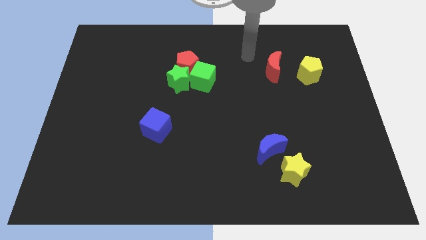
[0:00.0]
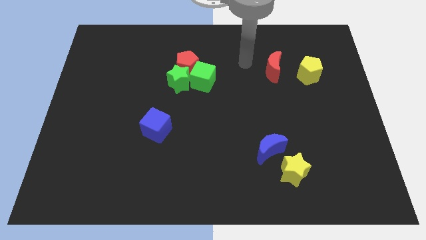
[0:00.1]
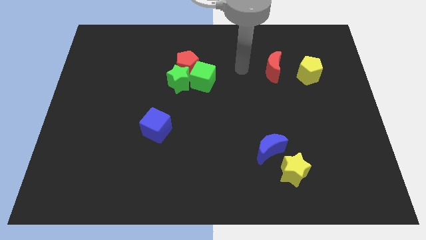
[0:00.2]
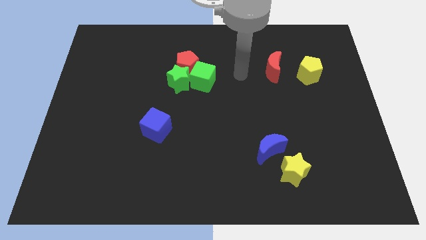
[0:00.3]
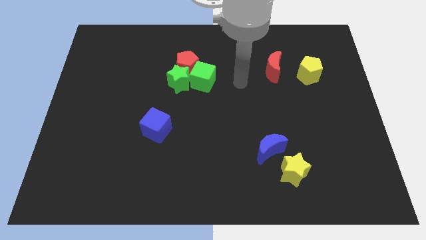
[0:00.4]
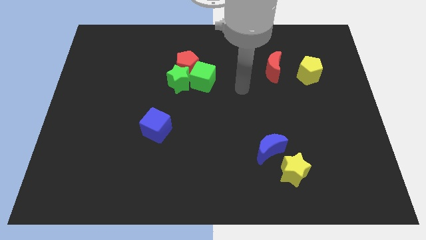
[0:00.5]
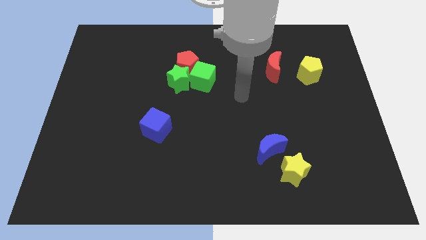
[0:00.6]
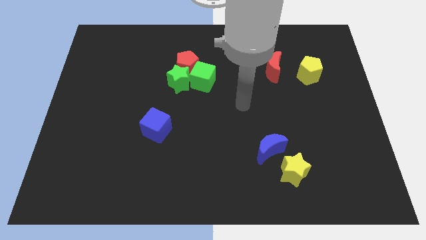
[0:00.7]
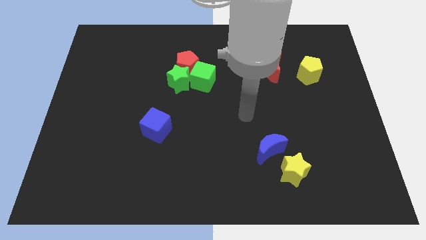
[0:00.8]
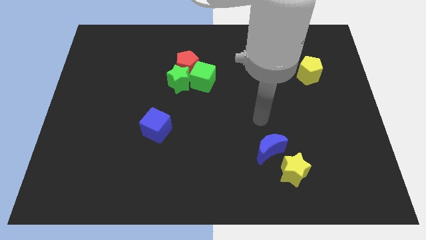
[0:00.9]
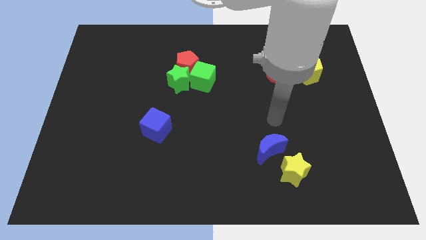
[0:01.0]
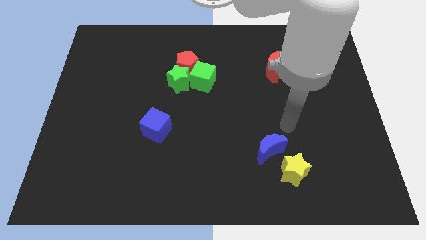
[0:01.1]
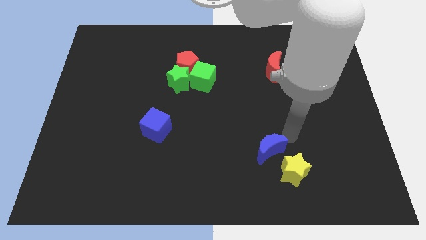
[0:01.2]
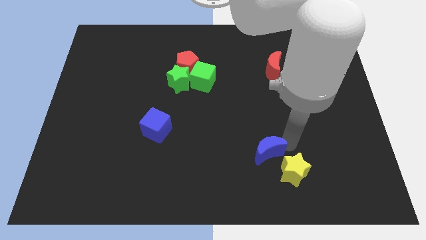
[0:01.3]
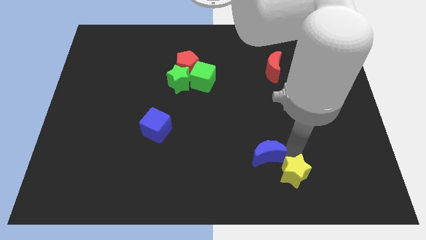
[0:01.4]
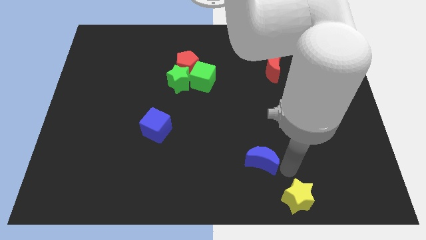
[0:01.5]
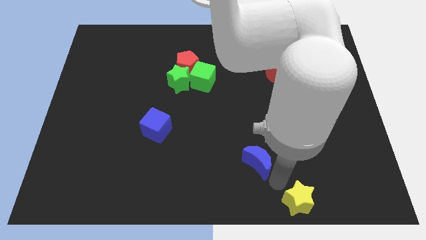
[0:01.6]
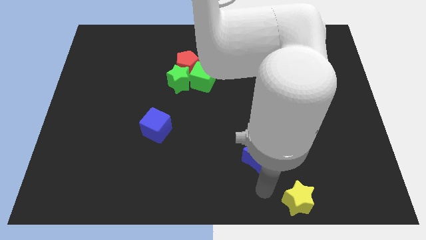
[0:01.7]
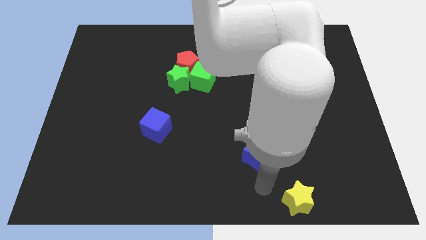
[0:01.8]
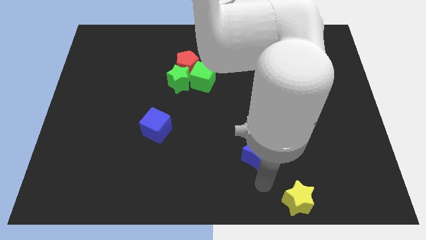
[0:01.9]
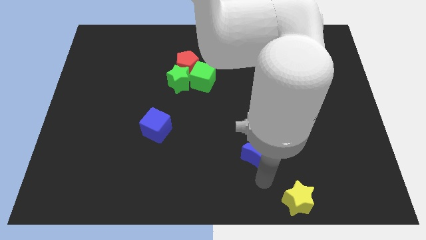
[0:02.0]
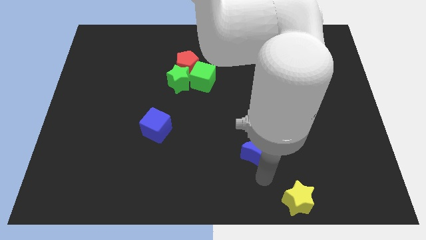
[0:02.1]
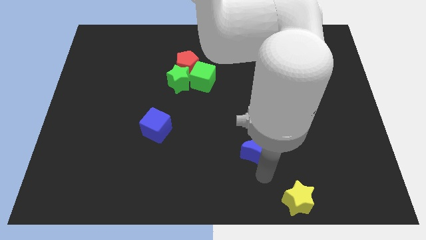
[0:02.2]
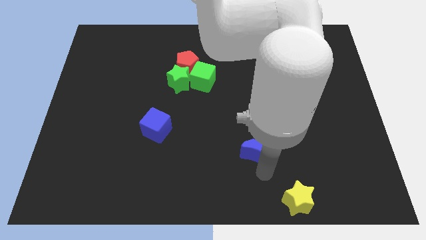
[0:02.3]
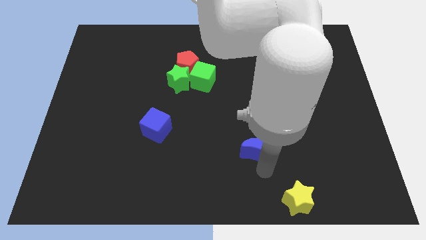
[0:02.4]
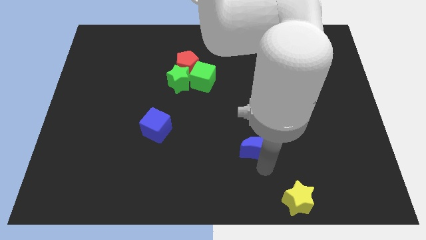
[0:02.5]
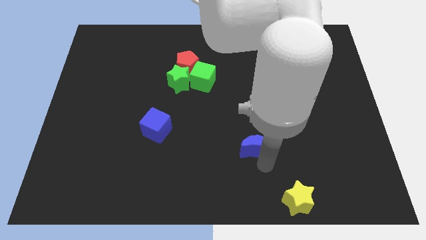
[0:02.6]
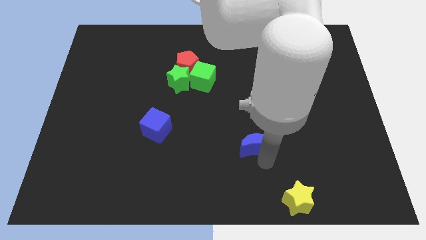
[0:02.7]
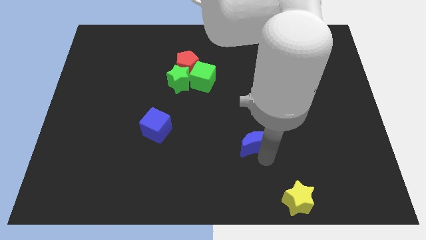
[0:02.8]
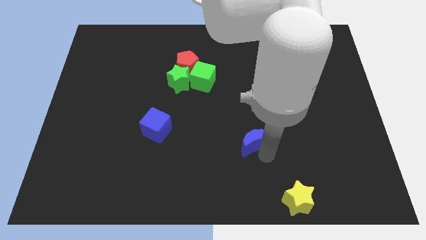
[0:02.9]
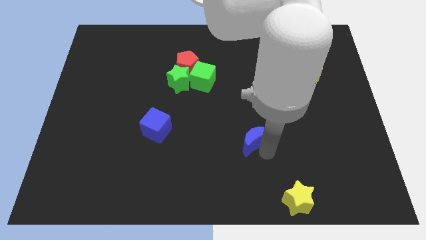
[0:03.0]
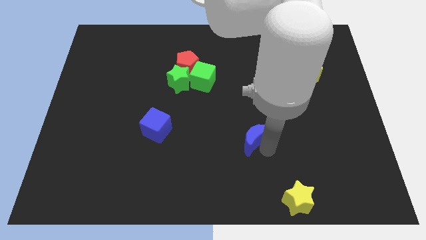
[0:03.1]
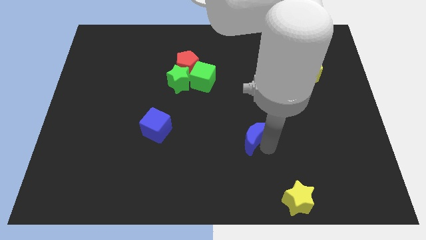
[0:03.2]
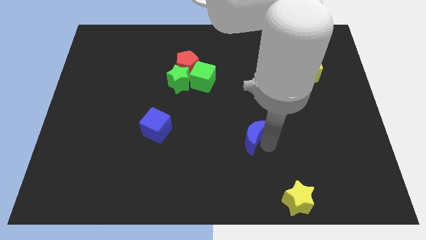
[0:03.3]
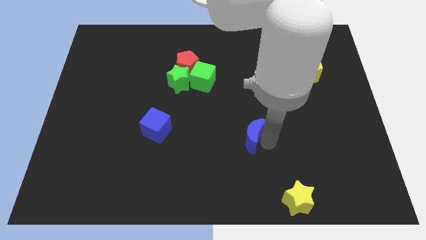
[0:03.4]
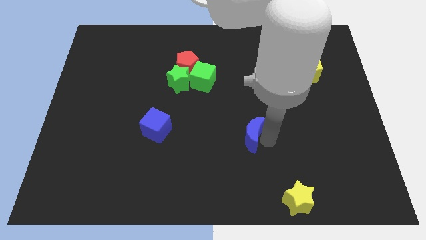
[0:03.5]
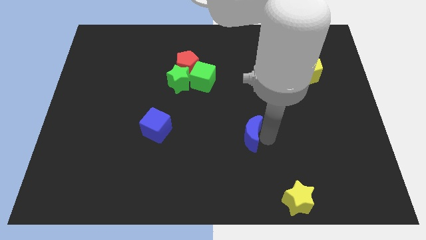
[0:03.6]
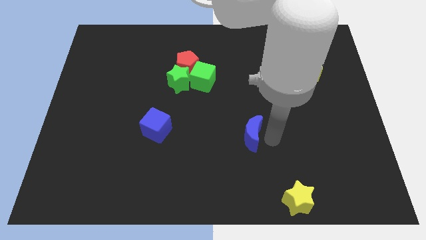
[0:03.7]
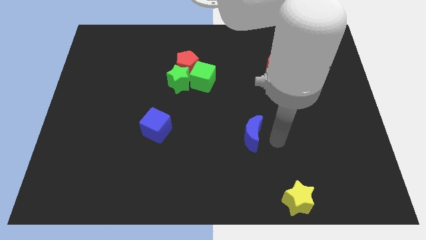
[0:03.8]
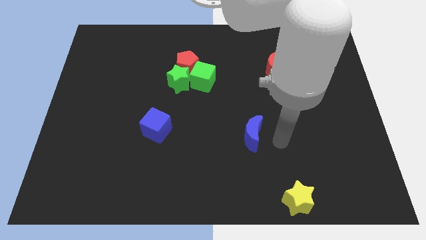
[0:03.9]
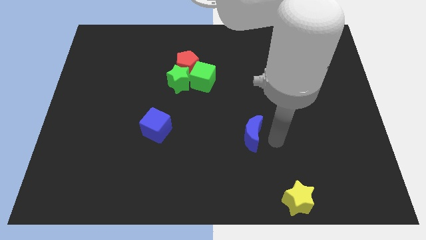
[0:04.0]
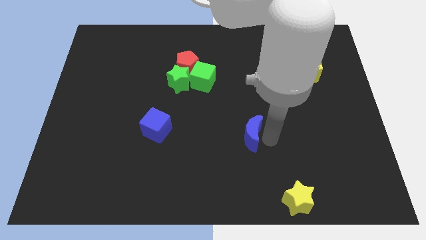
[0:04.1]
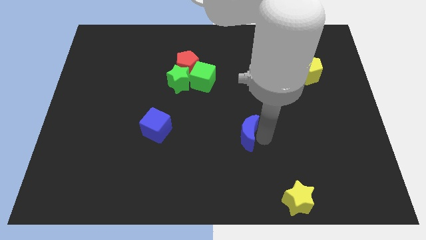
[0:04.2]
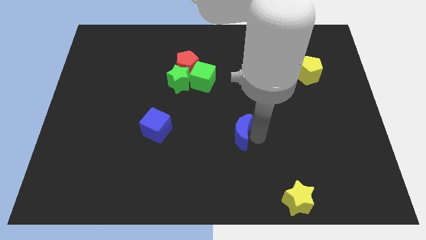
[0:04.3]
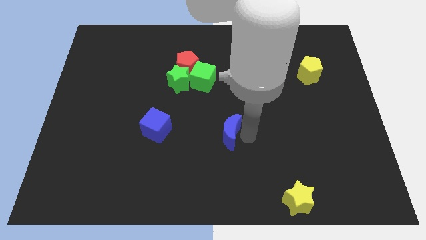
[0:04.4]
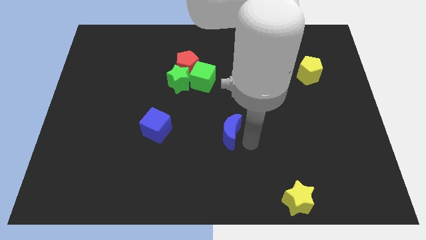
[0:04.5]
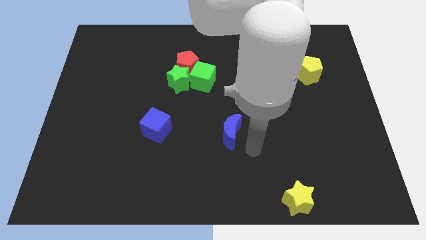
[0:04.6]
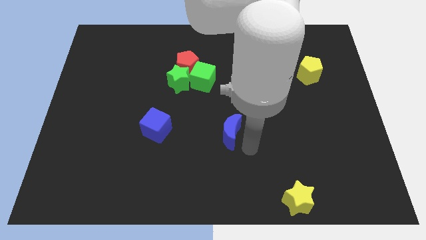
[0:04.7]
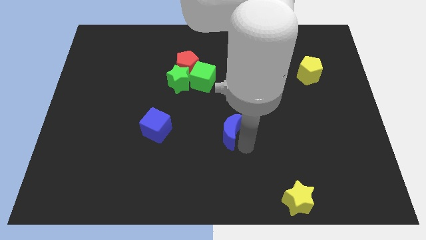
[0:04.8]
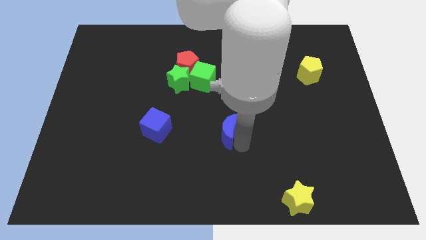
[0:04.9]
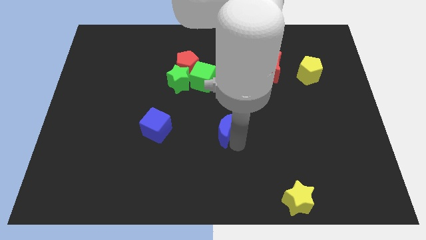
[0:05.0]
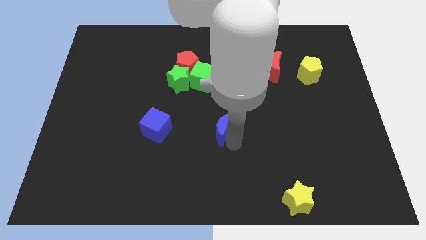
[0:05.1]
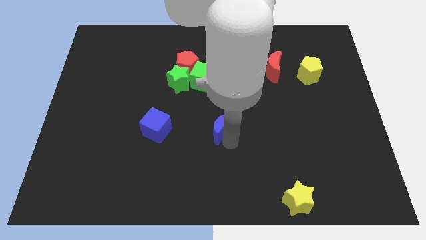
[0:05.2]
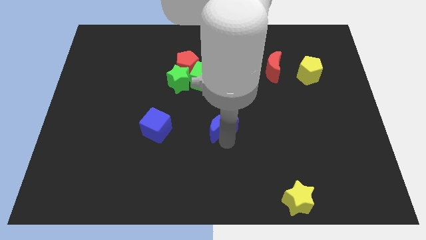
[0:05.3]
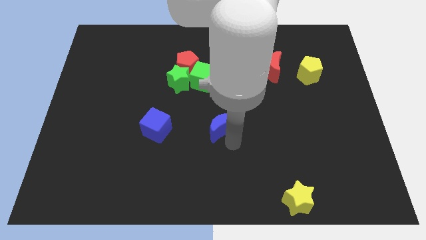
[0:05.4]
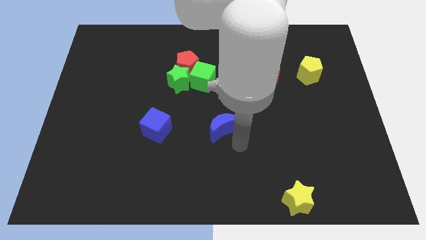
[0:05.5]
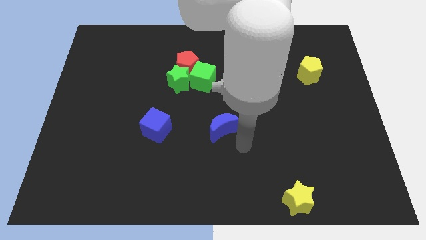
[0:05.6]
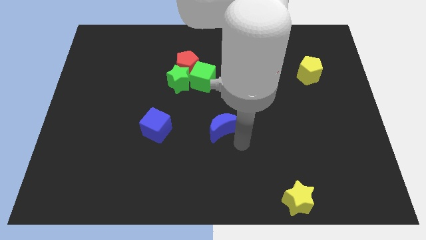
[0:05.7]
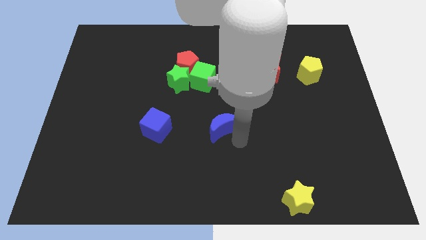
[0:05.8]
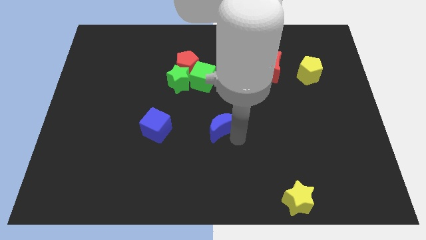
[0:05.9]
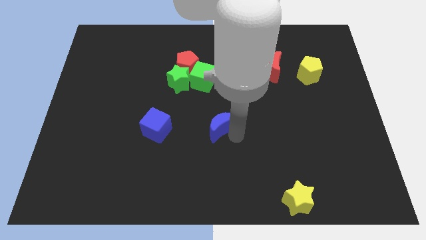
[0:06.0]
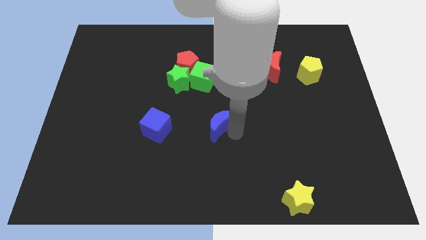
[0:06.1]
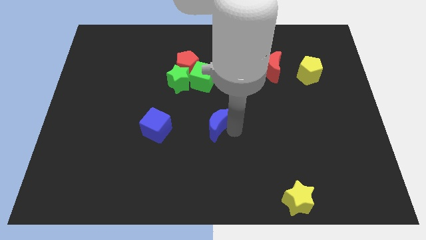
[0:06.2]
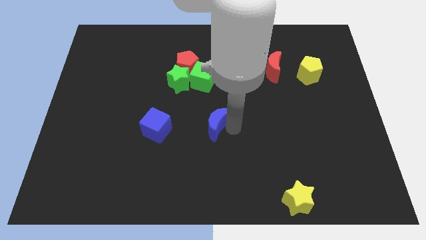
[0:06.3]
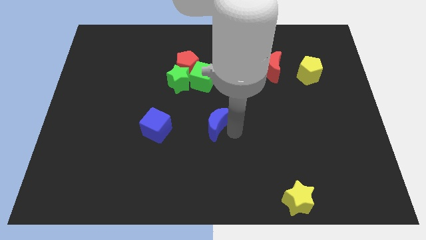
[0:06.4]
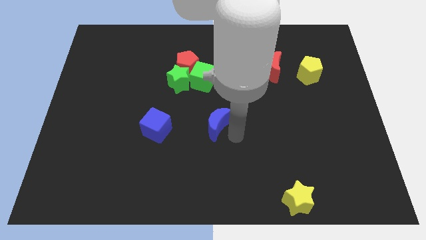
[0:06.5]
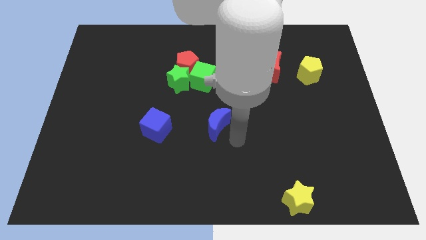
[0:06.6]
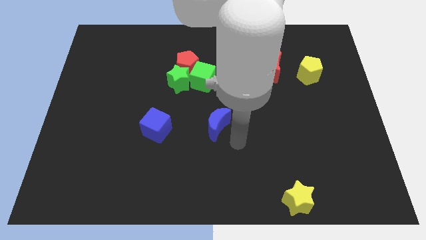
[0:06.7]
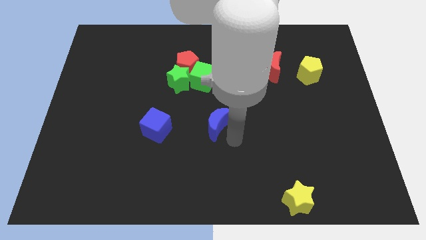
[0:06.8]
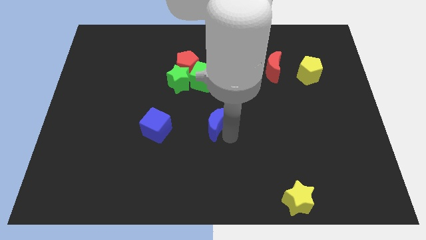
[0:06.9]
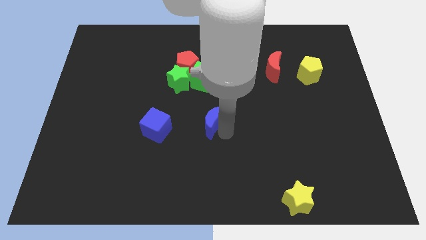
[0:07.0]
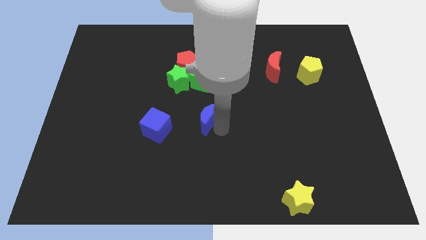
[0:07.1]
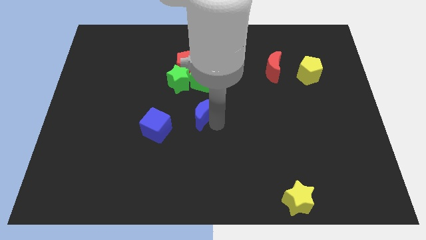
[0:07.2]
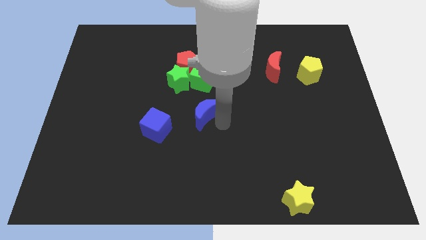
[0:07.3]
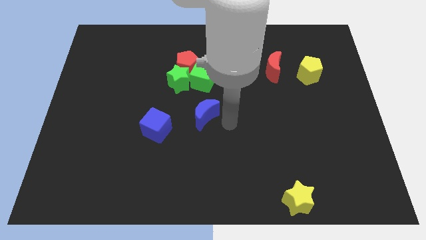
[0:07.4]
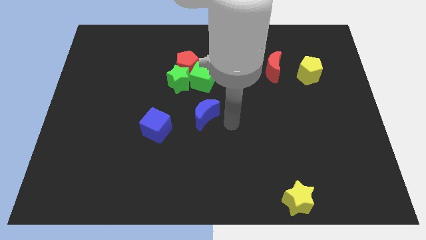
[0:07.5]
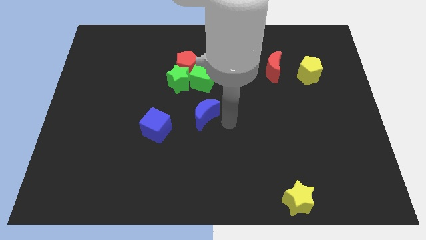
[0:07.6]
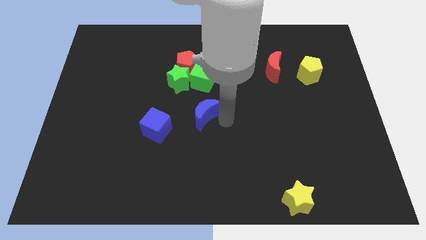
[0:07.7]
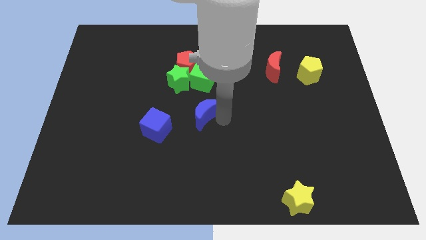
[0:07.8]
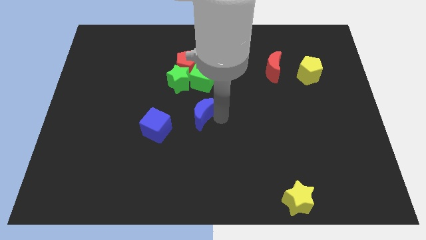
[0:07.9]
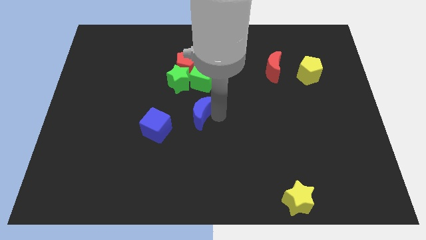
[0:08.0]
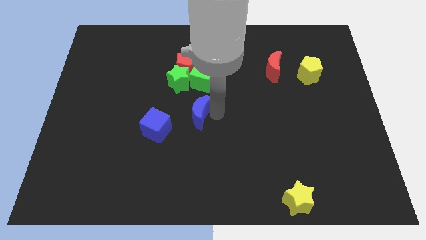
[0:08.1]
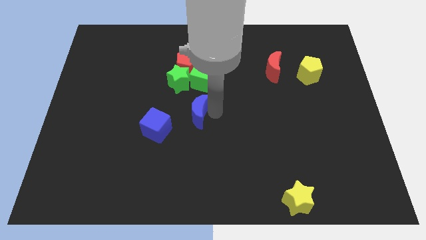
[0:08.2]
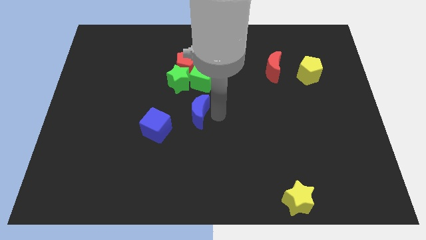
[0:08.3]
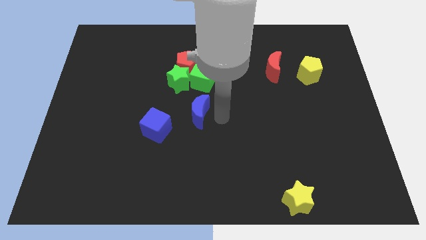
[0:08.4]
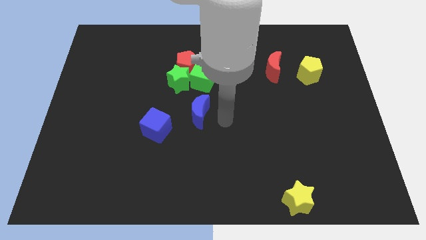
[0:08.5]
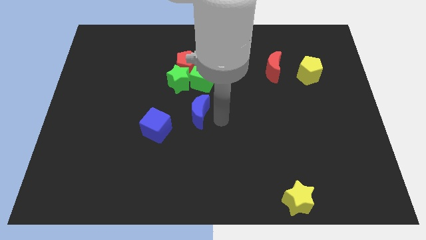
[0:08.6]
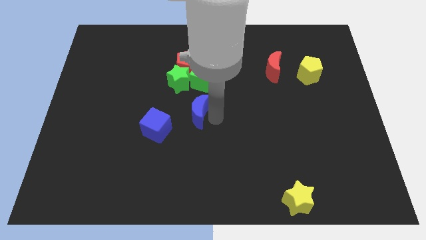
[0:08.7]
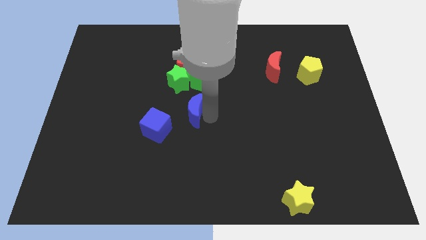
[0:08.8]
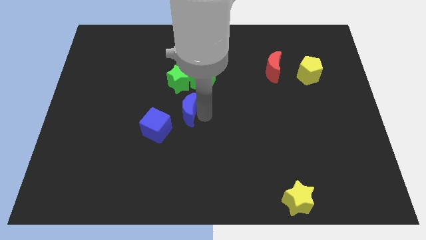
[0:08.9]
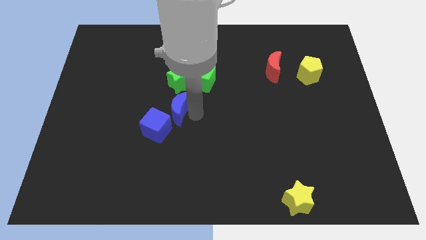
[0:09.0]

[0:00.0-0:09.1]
move the blue moon above the blue cube
